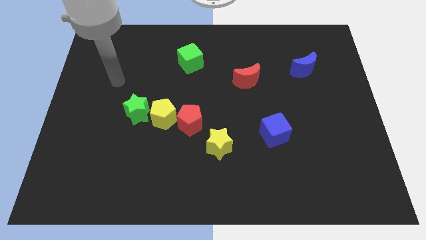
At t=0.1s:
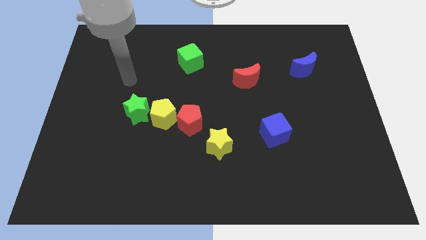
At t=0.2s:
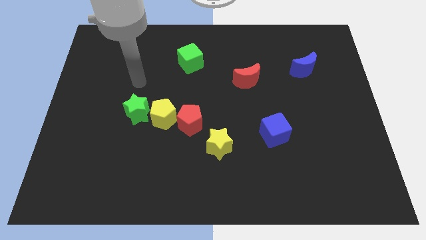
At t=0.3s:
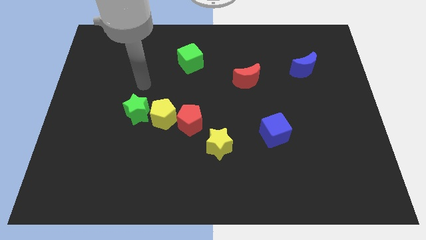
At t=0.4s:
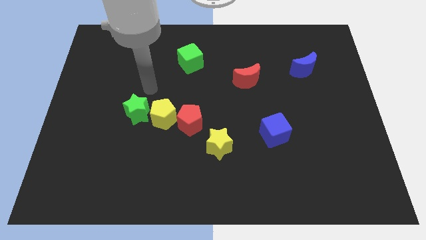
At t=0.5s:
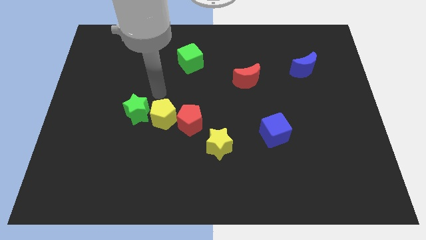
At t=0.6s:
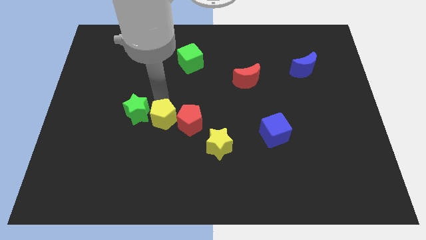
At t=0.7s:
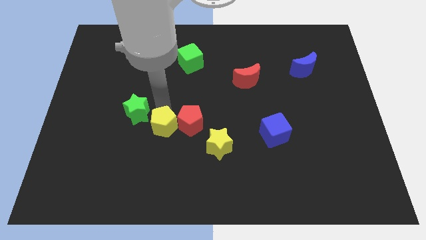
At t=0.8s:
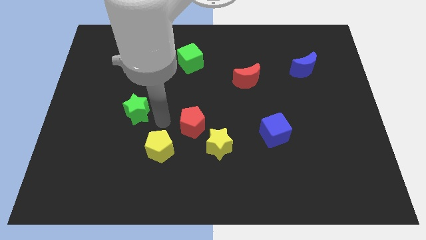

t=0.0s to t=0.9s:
pull the green star apart from the yellow pentagon

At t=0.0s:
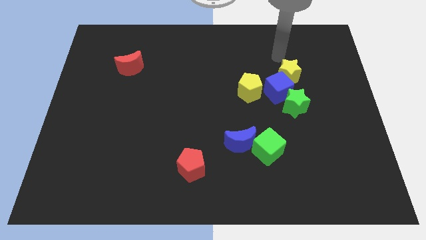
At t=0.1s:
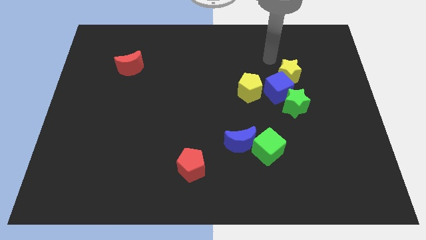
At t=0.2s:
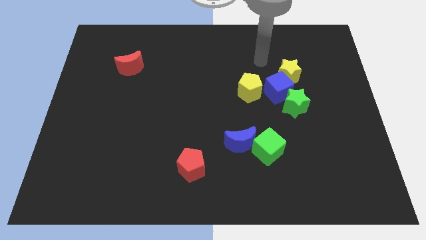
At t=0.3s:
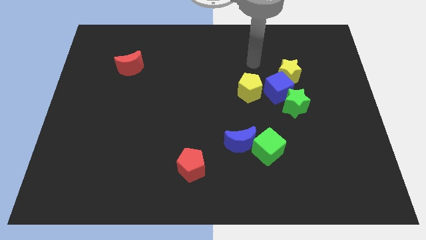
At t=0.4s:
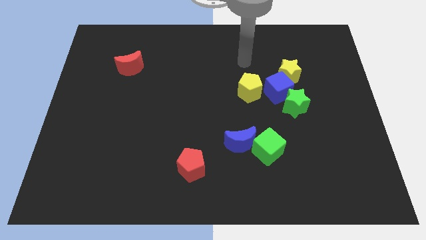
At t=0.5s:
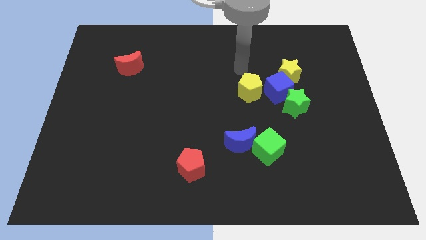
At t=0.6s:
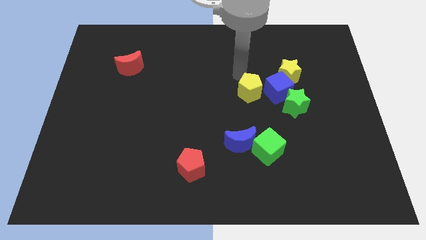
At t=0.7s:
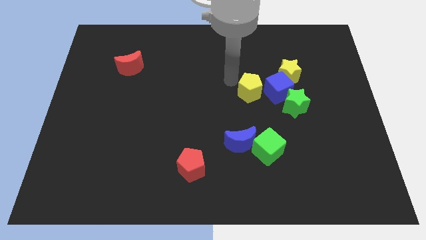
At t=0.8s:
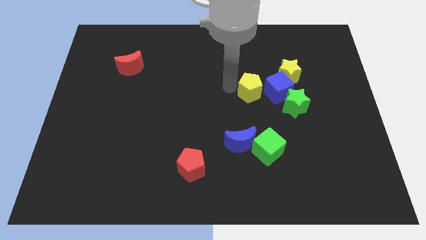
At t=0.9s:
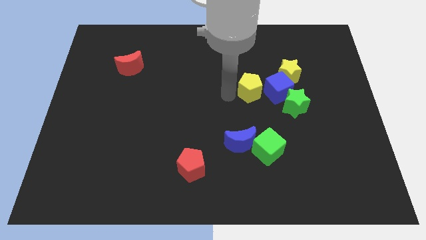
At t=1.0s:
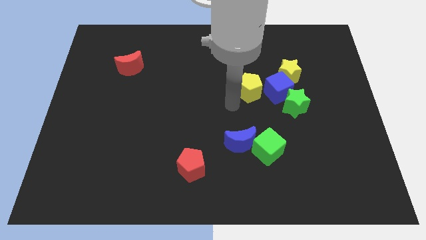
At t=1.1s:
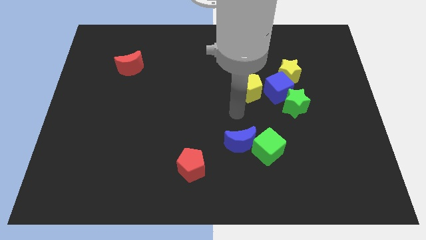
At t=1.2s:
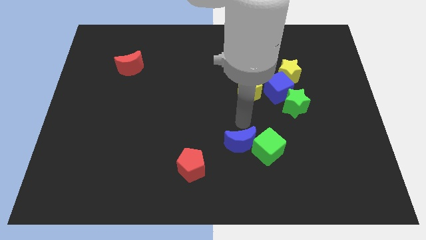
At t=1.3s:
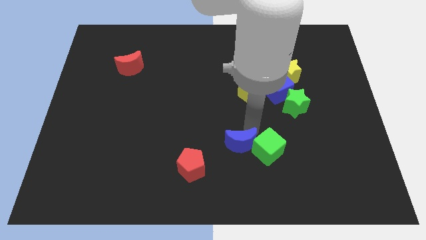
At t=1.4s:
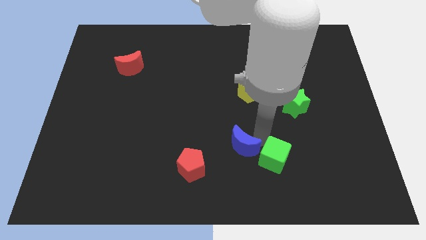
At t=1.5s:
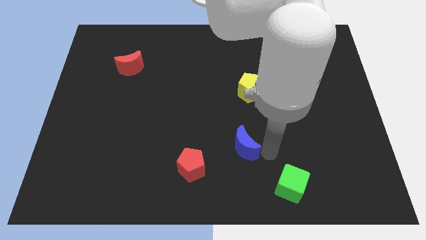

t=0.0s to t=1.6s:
pull the blue moon apart from the green cube

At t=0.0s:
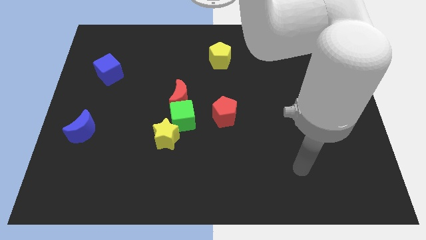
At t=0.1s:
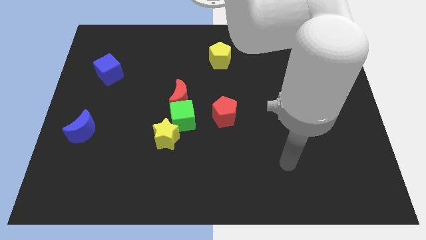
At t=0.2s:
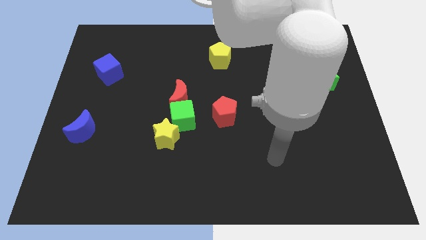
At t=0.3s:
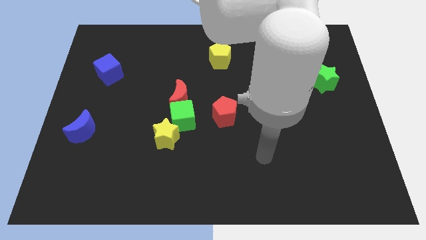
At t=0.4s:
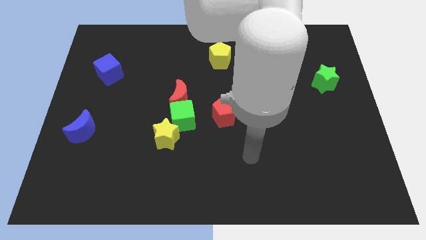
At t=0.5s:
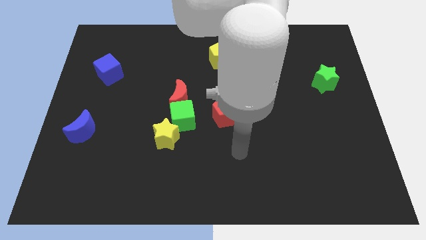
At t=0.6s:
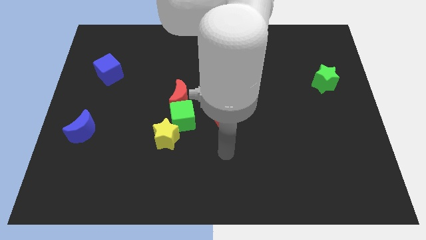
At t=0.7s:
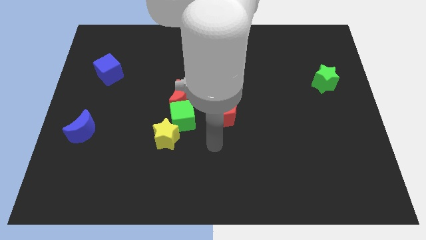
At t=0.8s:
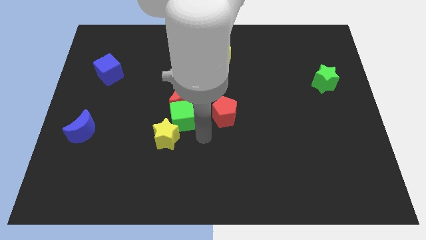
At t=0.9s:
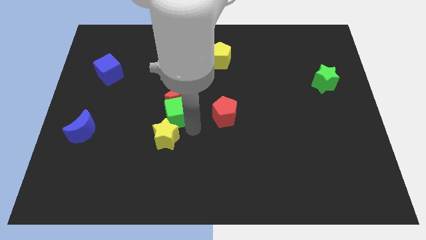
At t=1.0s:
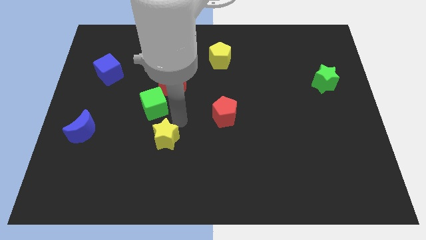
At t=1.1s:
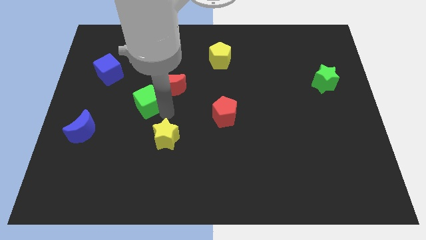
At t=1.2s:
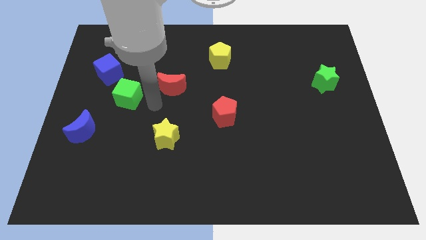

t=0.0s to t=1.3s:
pull the red moon apart from the green cube

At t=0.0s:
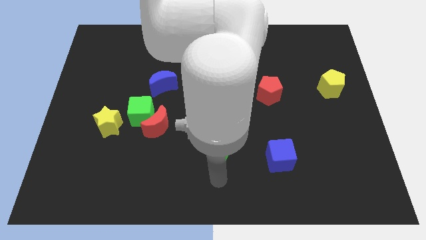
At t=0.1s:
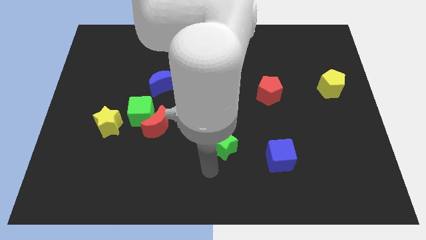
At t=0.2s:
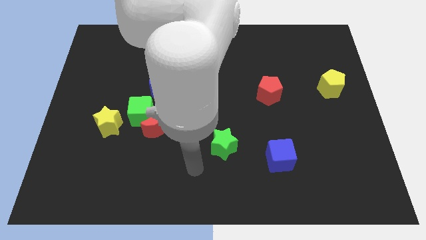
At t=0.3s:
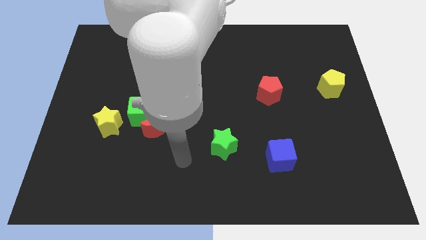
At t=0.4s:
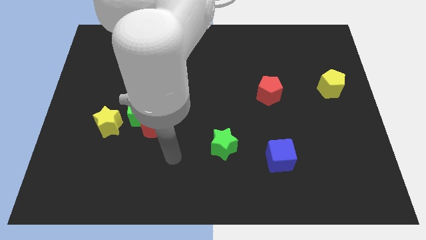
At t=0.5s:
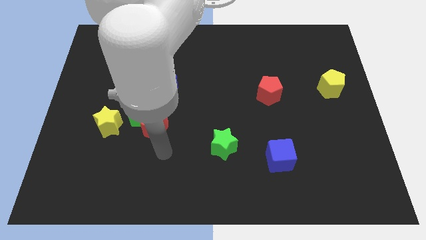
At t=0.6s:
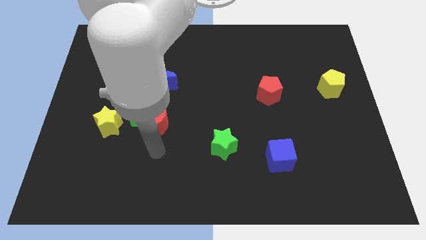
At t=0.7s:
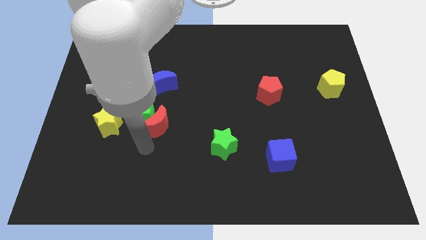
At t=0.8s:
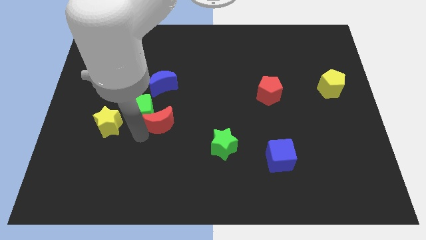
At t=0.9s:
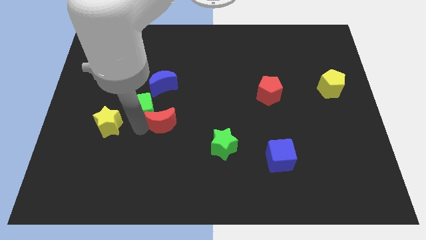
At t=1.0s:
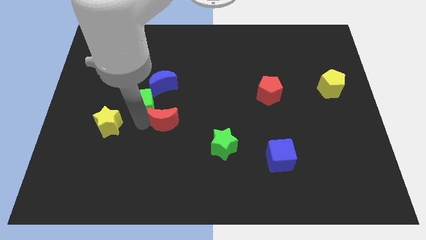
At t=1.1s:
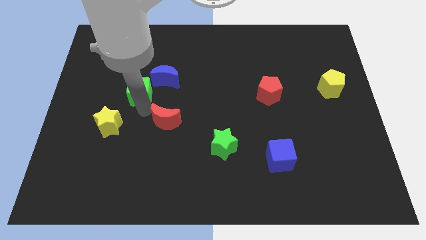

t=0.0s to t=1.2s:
separate the red moon from the green cube

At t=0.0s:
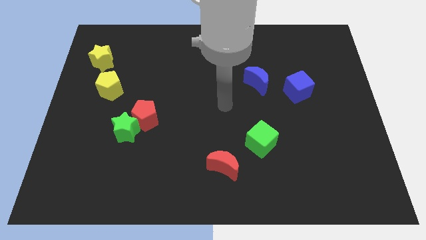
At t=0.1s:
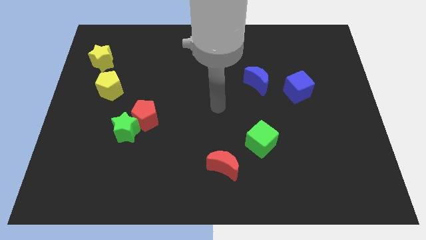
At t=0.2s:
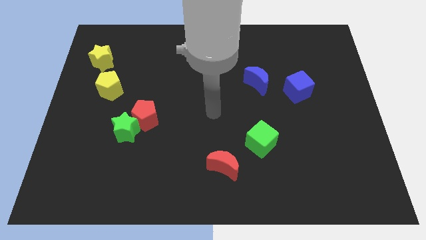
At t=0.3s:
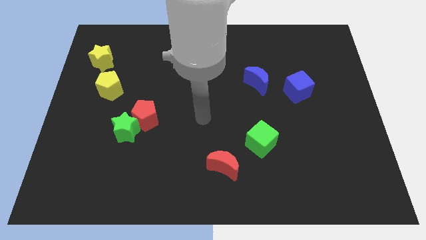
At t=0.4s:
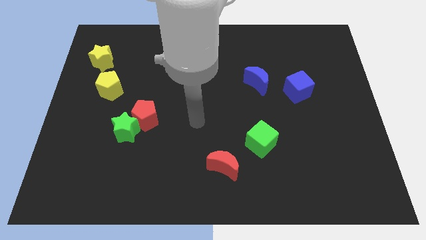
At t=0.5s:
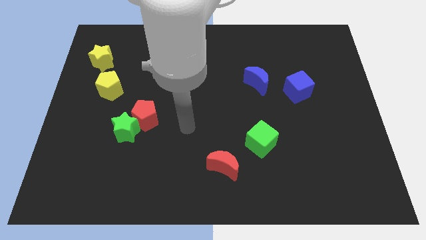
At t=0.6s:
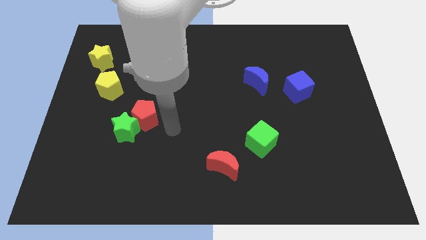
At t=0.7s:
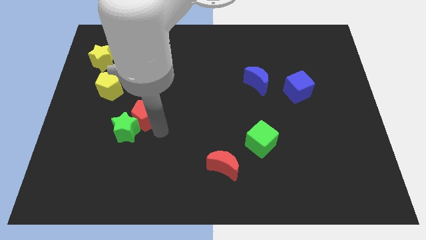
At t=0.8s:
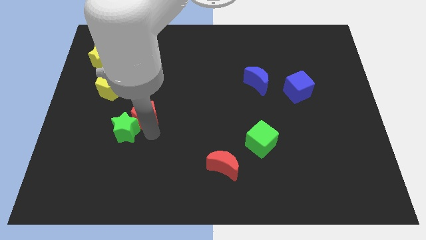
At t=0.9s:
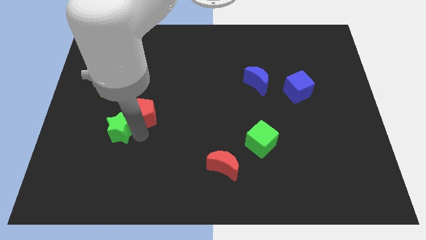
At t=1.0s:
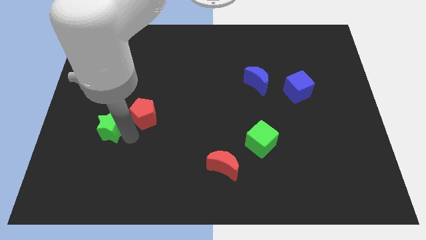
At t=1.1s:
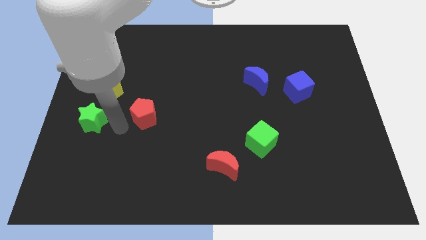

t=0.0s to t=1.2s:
pull the red pentagon apart from the green star

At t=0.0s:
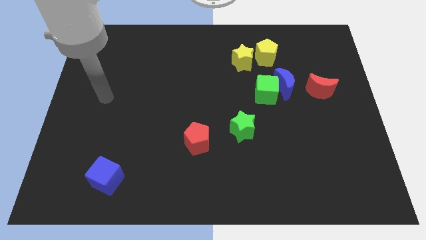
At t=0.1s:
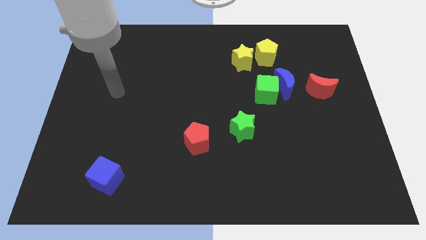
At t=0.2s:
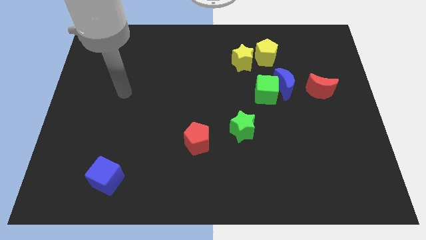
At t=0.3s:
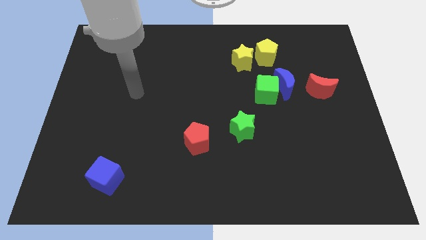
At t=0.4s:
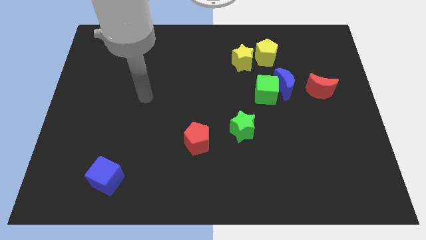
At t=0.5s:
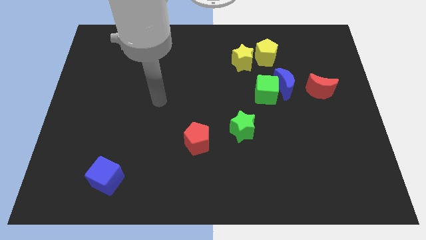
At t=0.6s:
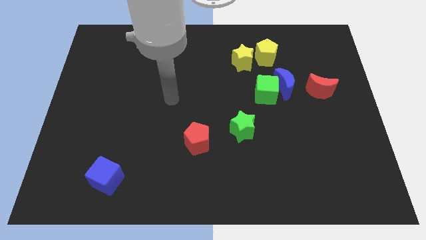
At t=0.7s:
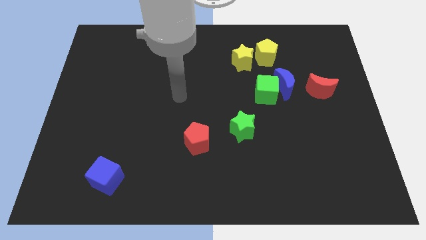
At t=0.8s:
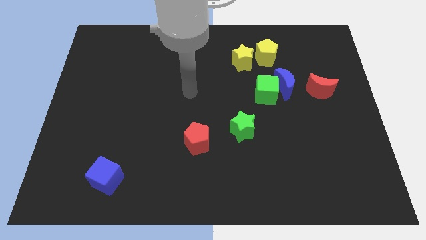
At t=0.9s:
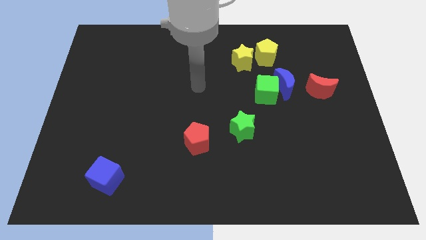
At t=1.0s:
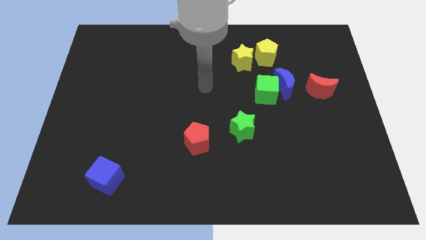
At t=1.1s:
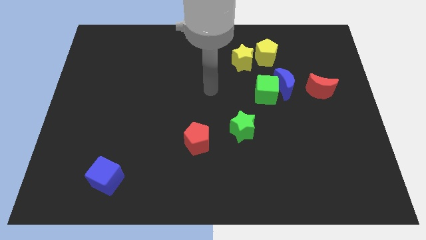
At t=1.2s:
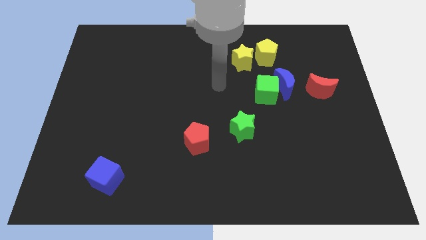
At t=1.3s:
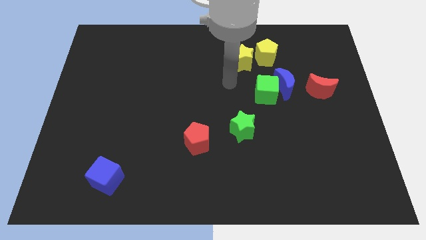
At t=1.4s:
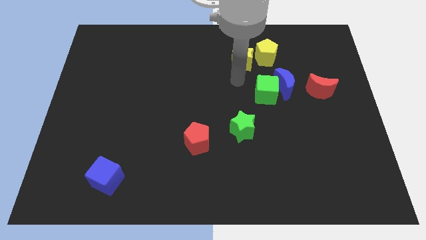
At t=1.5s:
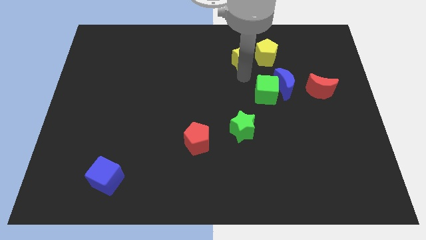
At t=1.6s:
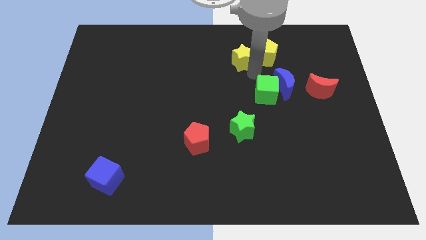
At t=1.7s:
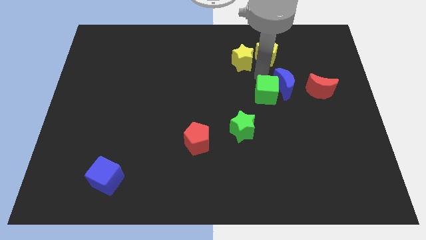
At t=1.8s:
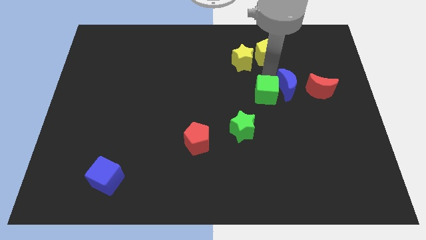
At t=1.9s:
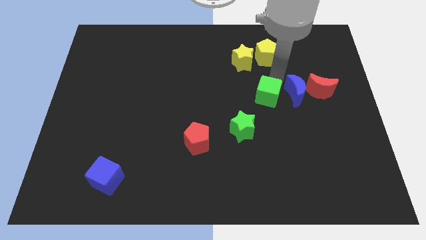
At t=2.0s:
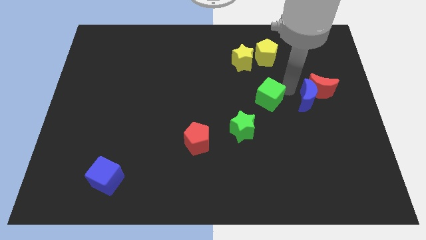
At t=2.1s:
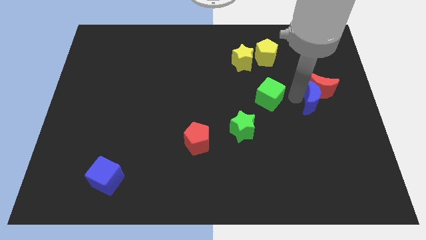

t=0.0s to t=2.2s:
move the green cube away from the blue moon

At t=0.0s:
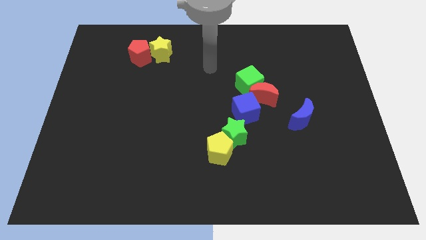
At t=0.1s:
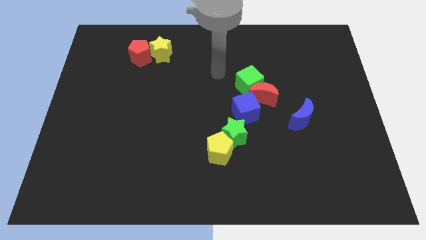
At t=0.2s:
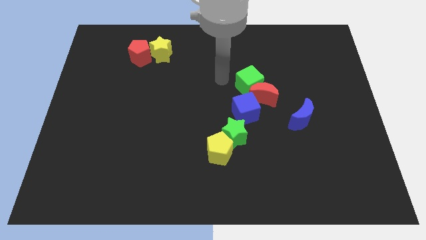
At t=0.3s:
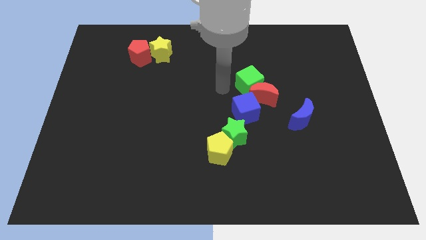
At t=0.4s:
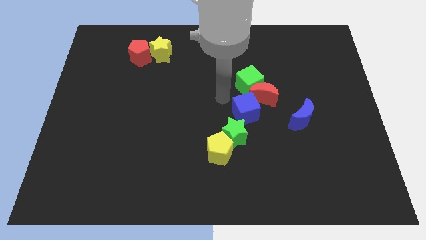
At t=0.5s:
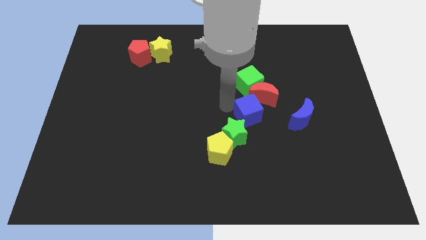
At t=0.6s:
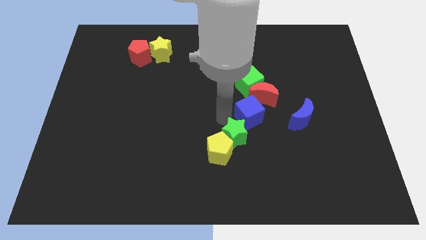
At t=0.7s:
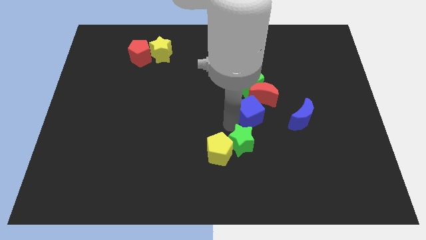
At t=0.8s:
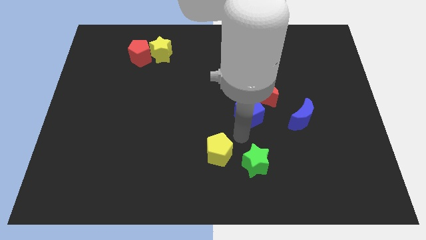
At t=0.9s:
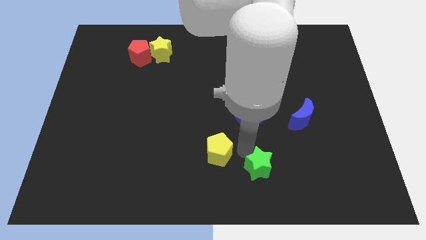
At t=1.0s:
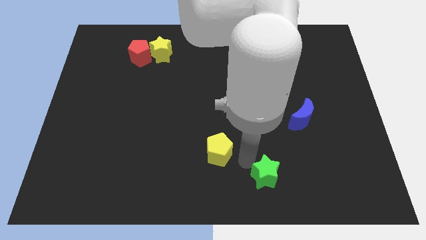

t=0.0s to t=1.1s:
move the yellow pentagon away from the green star

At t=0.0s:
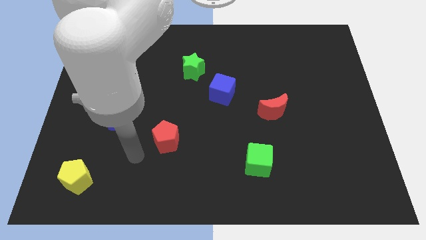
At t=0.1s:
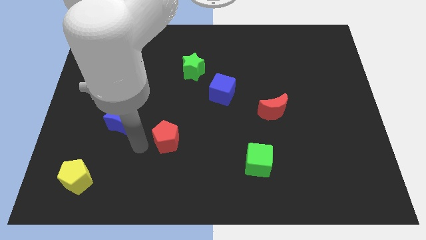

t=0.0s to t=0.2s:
move the blue cube away from the green star
